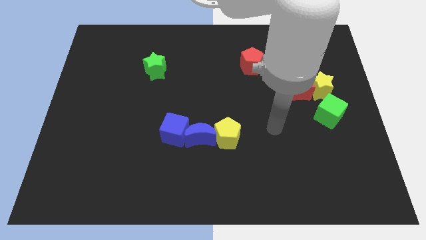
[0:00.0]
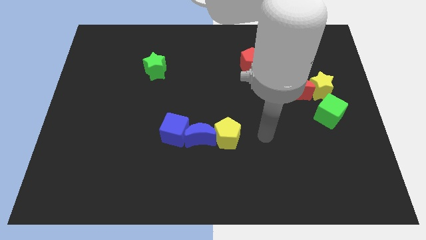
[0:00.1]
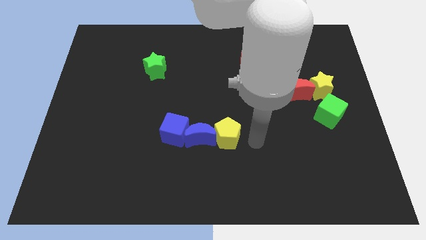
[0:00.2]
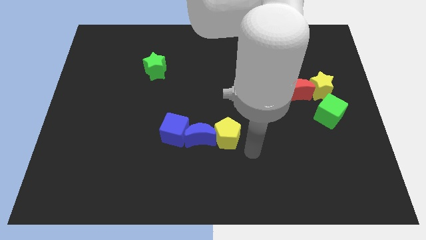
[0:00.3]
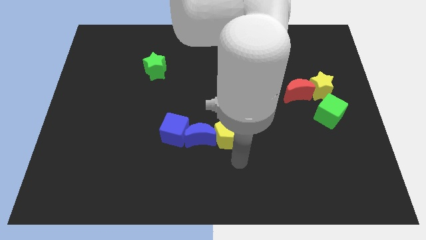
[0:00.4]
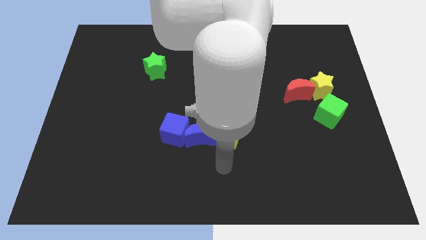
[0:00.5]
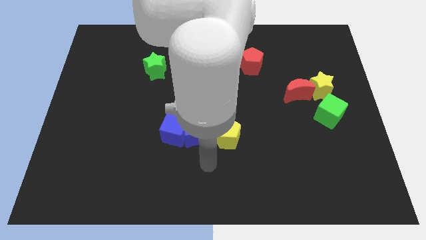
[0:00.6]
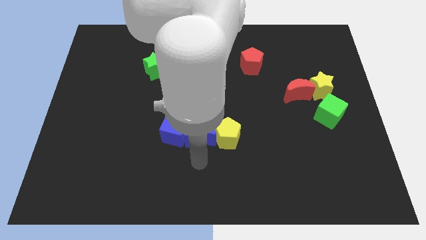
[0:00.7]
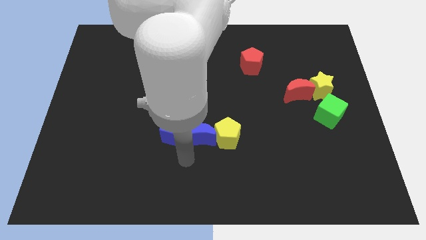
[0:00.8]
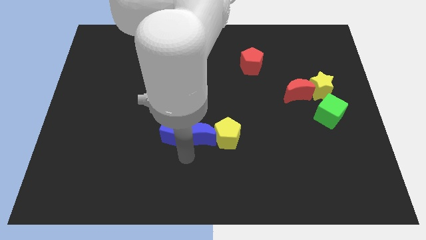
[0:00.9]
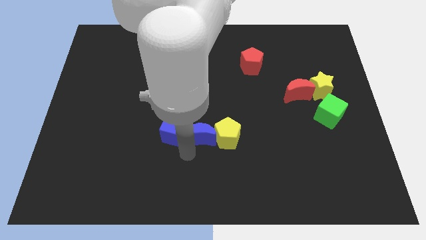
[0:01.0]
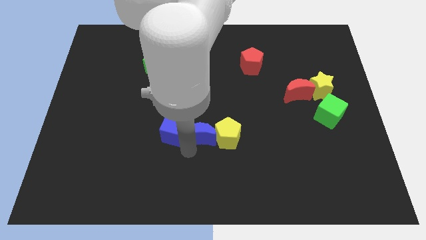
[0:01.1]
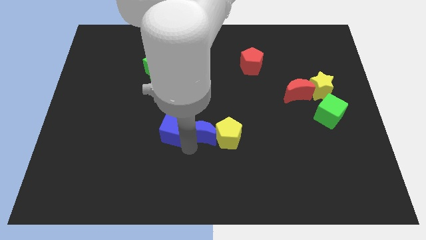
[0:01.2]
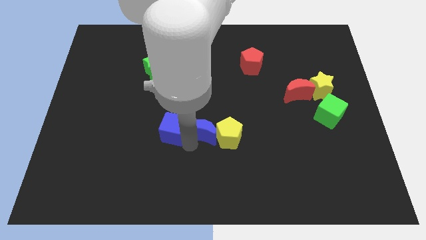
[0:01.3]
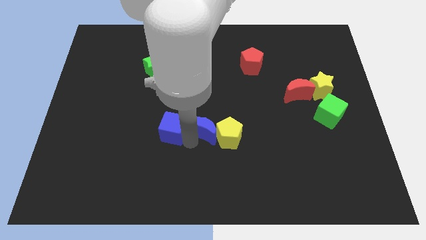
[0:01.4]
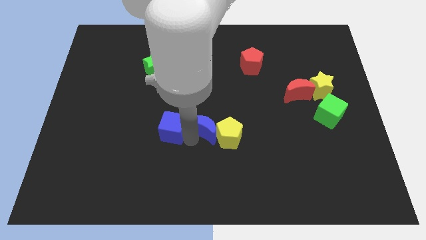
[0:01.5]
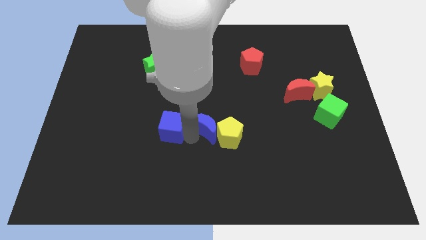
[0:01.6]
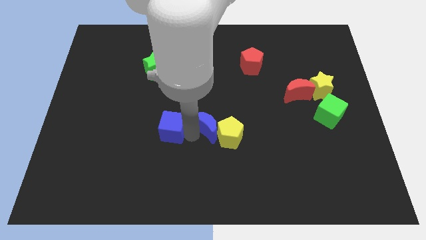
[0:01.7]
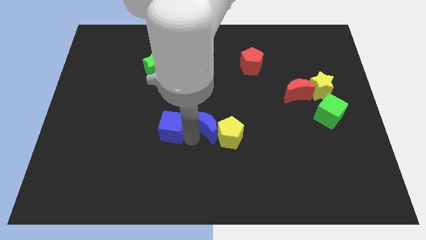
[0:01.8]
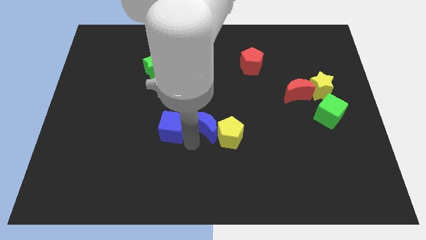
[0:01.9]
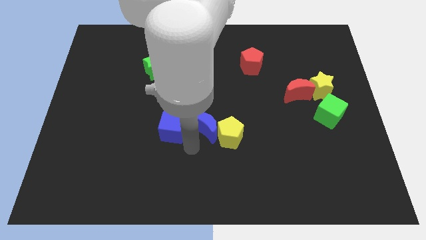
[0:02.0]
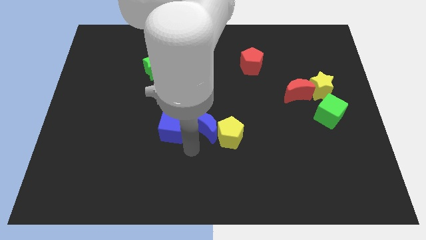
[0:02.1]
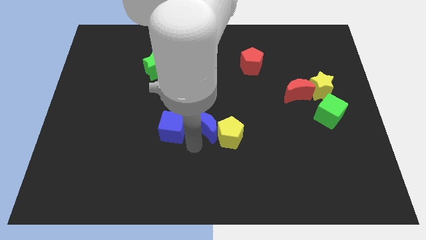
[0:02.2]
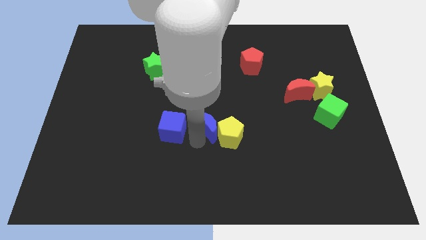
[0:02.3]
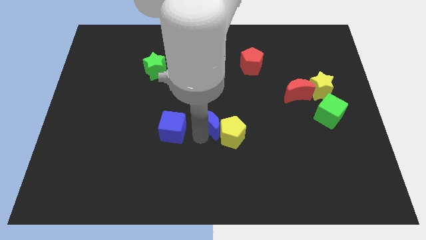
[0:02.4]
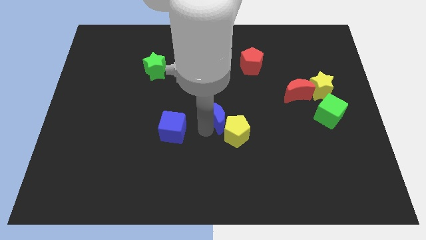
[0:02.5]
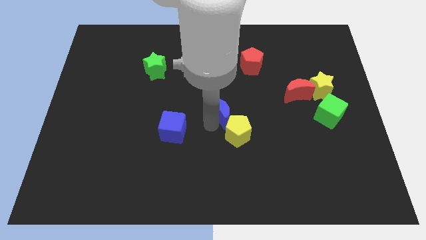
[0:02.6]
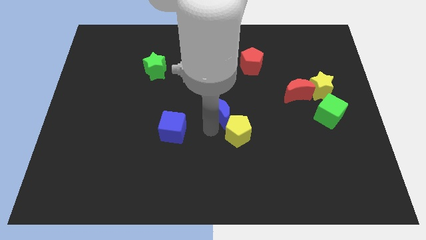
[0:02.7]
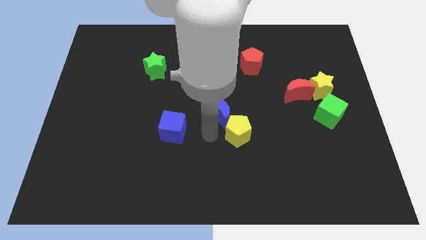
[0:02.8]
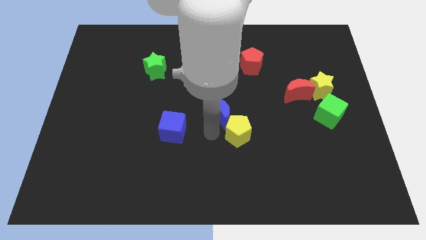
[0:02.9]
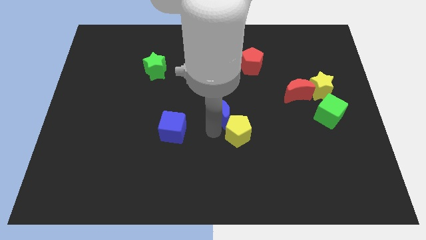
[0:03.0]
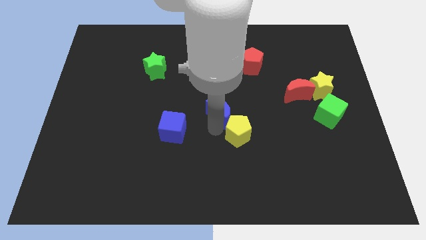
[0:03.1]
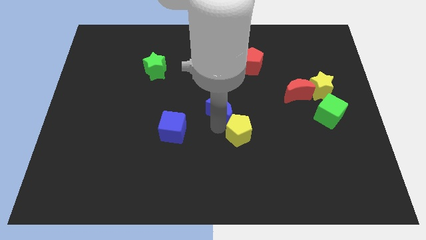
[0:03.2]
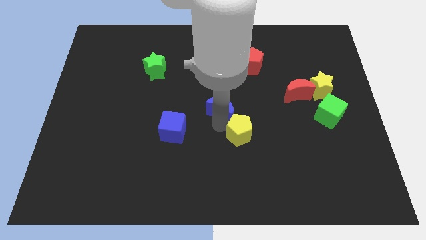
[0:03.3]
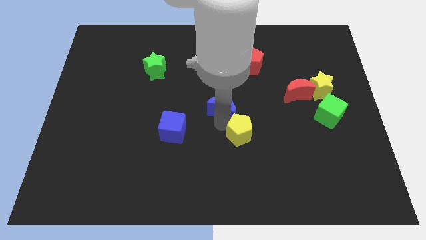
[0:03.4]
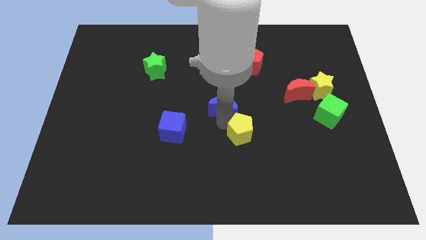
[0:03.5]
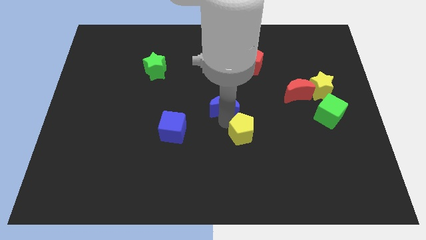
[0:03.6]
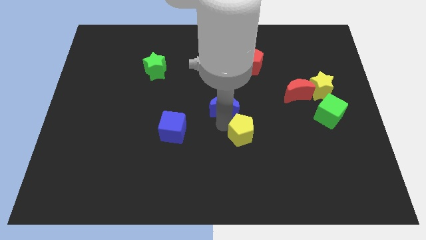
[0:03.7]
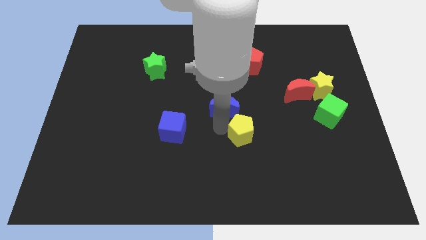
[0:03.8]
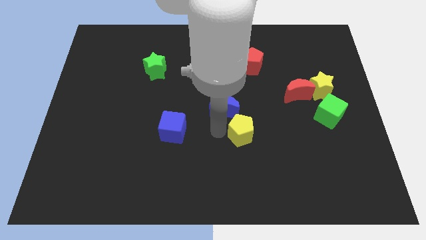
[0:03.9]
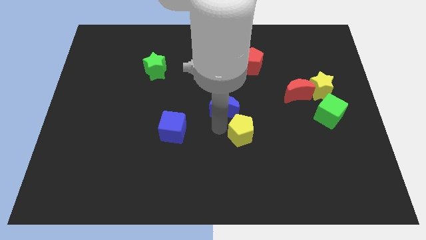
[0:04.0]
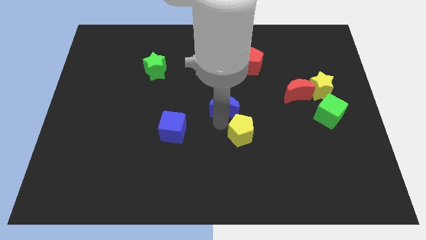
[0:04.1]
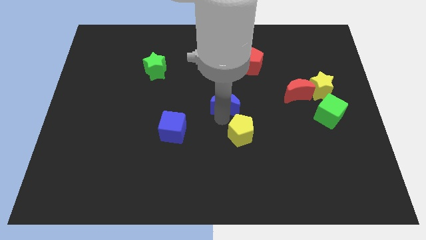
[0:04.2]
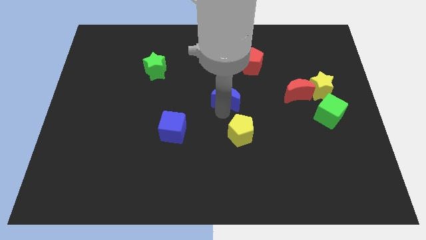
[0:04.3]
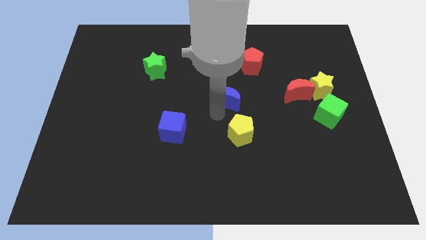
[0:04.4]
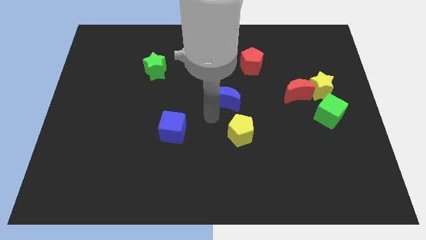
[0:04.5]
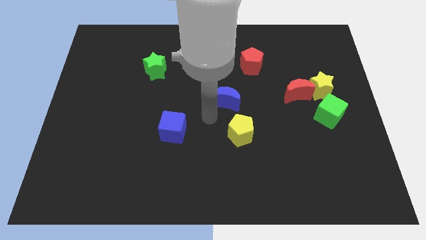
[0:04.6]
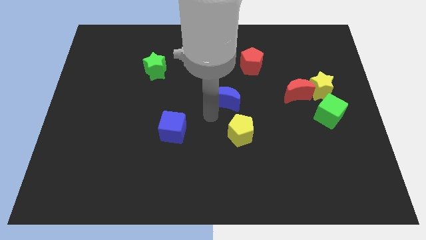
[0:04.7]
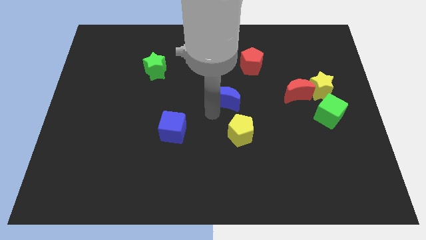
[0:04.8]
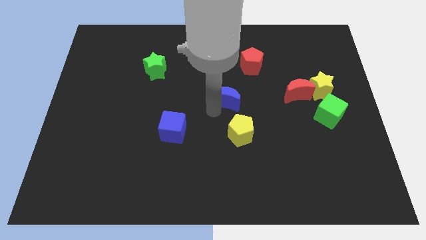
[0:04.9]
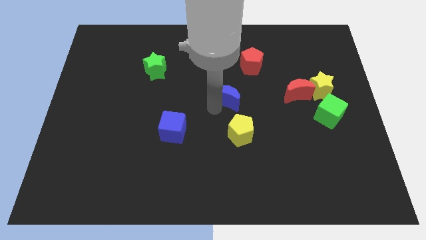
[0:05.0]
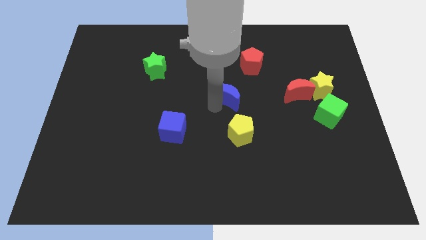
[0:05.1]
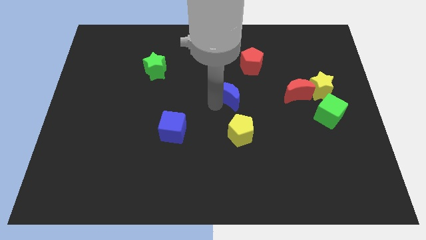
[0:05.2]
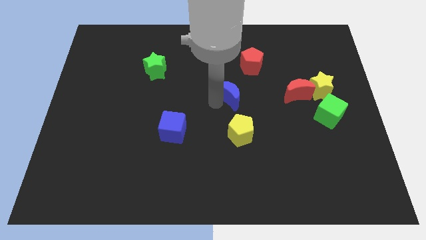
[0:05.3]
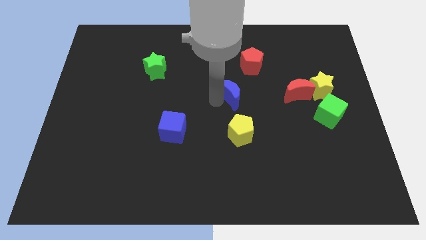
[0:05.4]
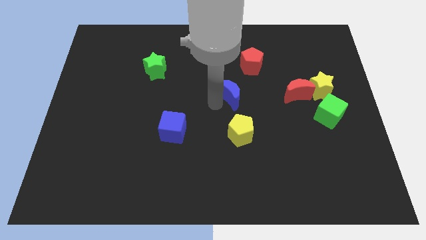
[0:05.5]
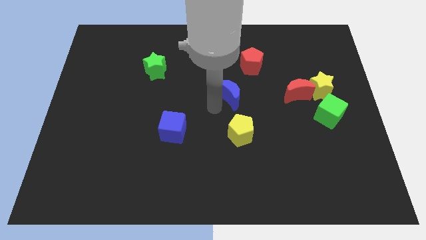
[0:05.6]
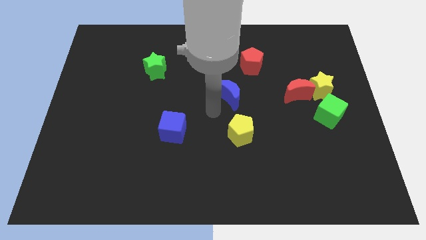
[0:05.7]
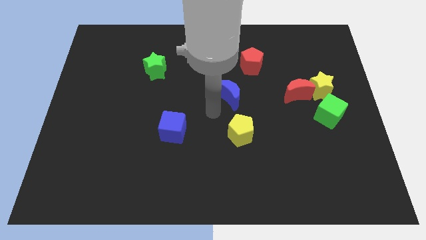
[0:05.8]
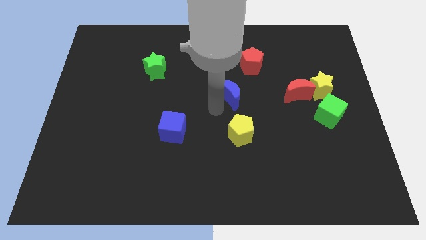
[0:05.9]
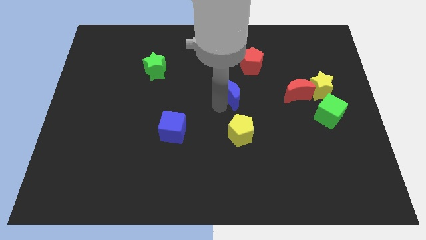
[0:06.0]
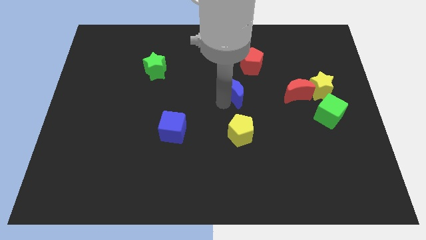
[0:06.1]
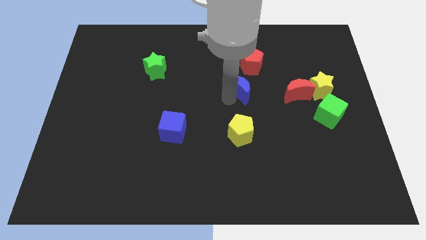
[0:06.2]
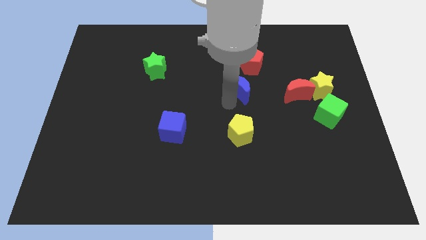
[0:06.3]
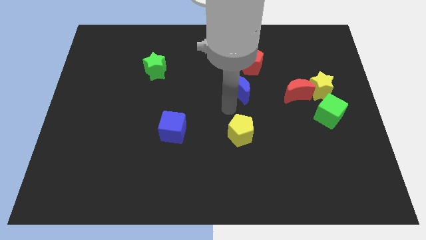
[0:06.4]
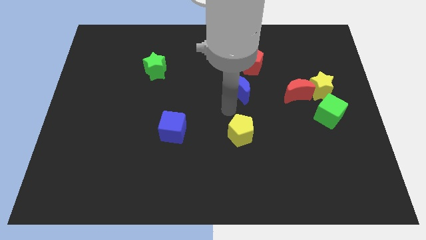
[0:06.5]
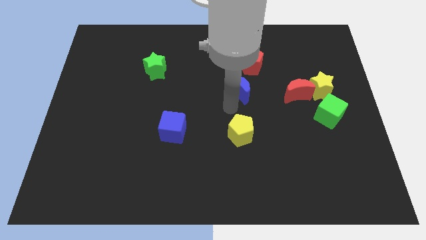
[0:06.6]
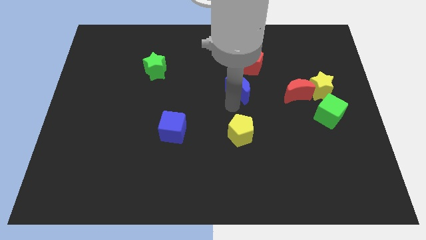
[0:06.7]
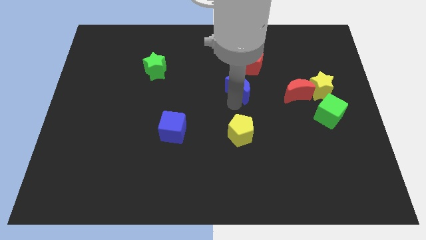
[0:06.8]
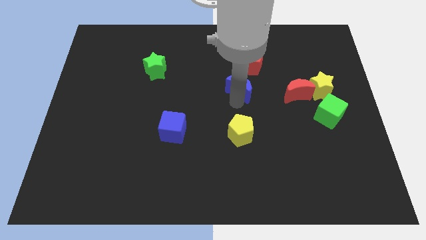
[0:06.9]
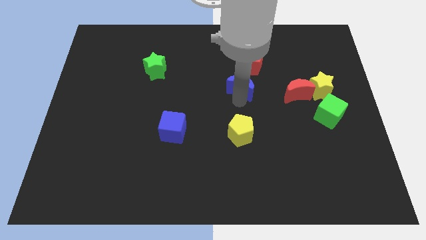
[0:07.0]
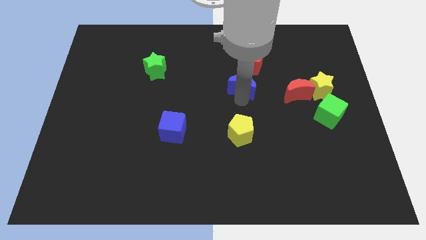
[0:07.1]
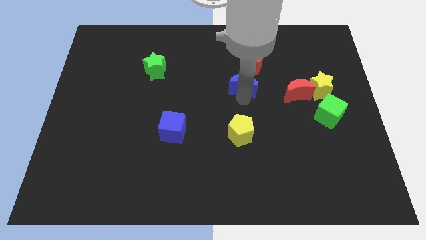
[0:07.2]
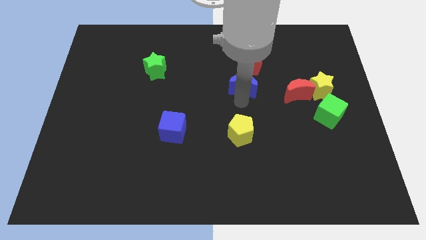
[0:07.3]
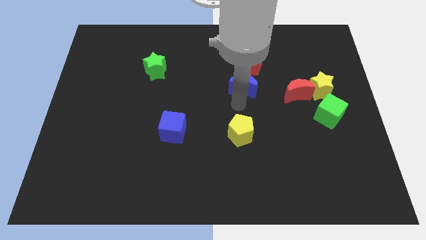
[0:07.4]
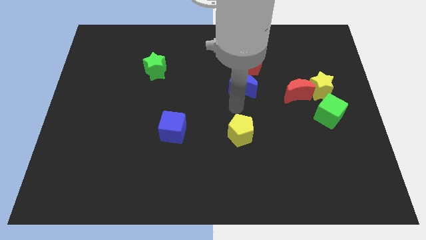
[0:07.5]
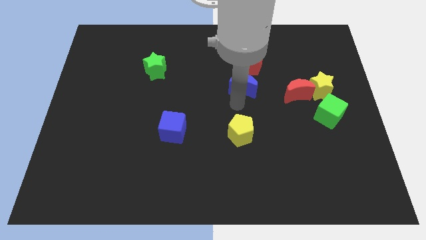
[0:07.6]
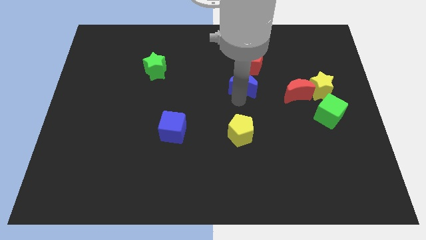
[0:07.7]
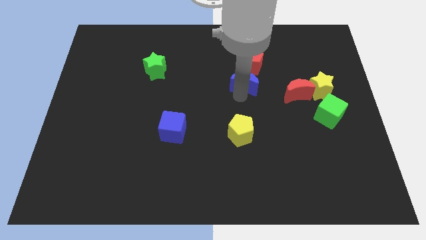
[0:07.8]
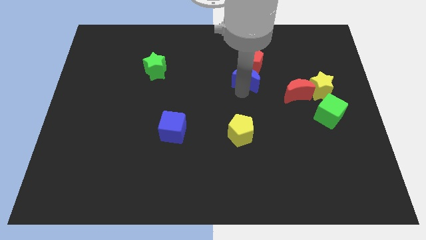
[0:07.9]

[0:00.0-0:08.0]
slide the blue moon next to the red pentagon

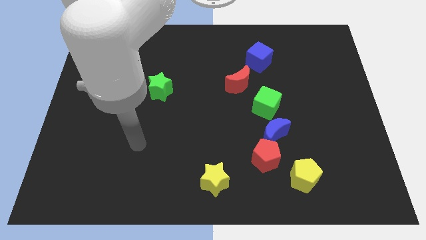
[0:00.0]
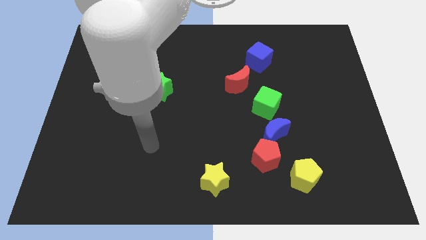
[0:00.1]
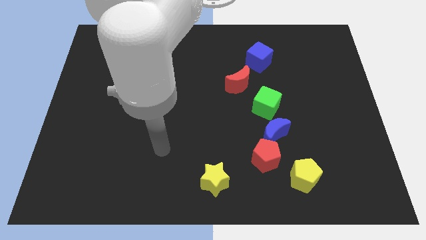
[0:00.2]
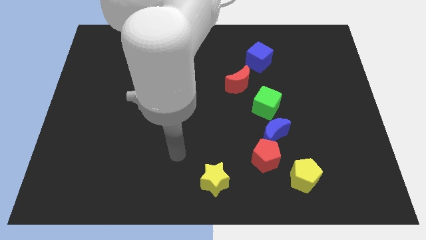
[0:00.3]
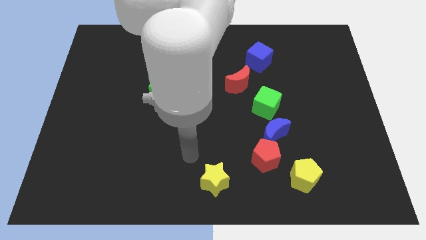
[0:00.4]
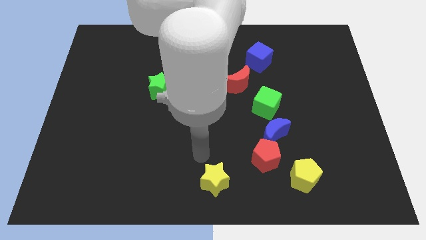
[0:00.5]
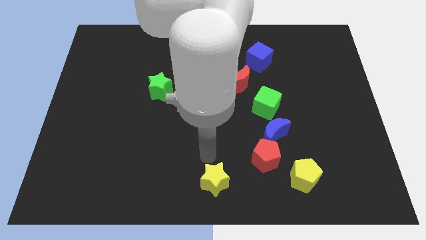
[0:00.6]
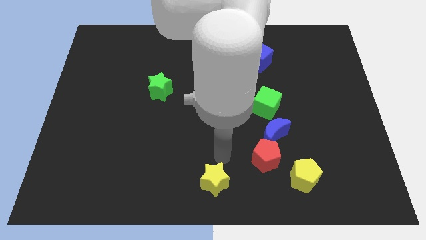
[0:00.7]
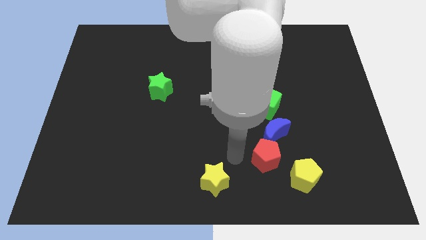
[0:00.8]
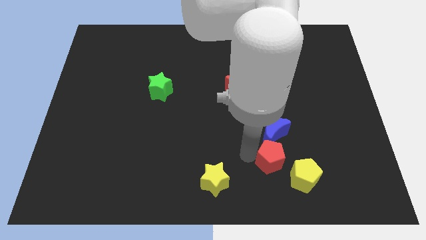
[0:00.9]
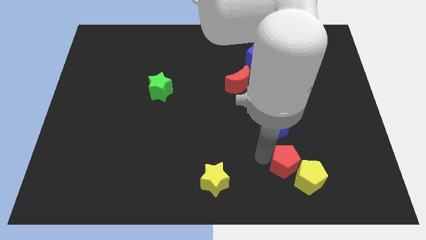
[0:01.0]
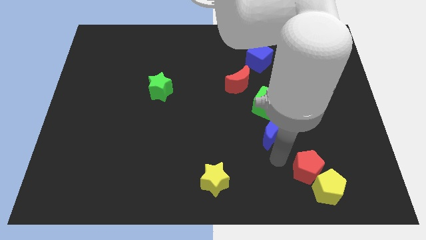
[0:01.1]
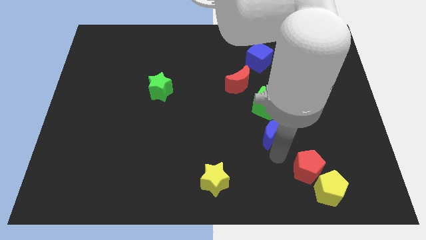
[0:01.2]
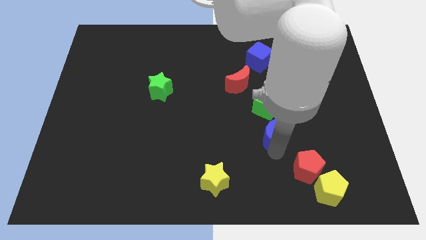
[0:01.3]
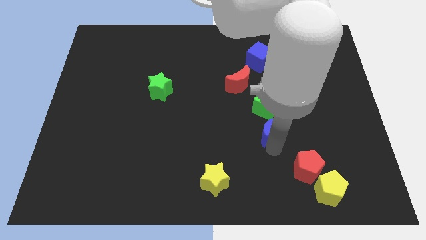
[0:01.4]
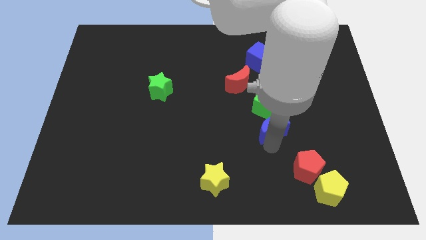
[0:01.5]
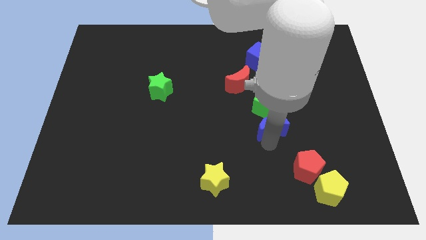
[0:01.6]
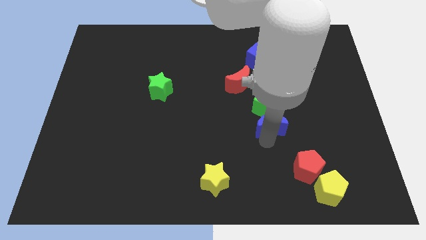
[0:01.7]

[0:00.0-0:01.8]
push the blue moon close to the green cube
